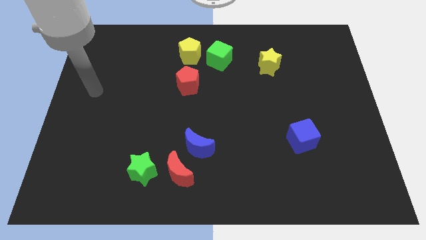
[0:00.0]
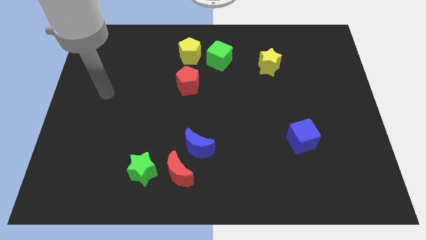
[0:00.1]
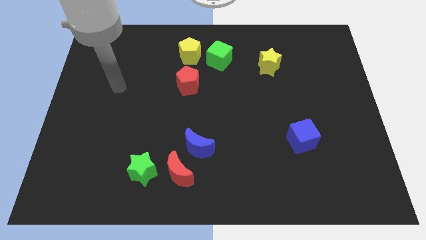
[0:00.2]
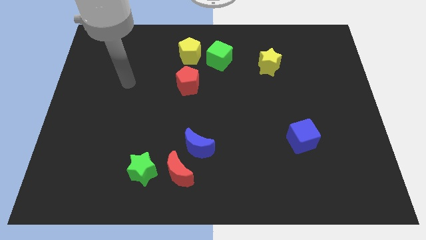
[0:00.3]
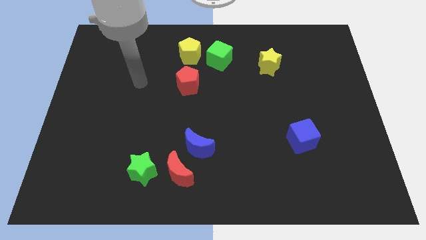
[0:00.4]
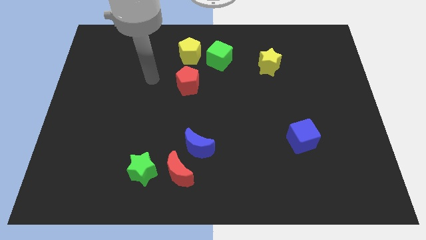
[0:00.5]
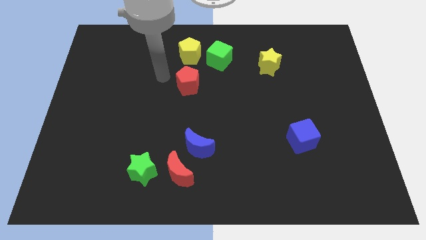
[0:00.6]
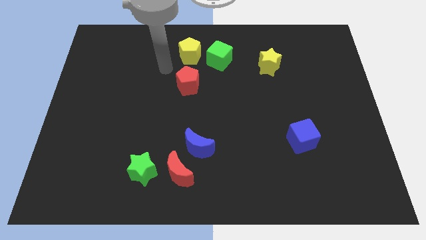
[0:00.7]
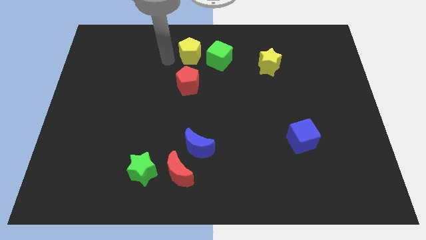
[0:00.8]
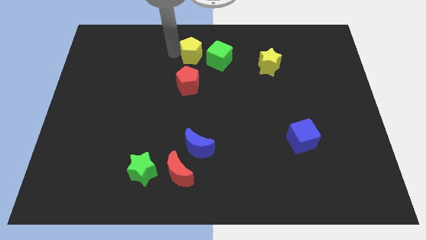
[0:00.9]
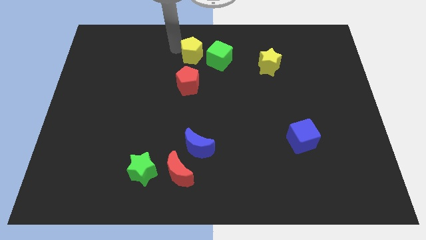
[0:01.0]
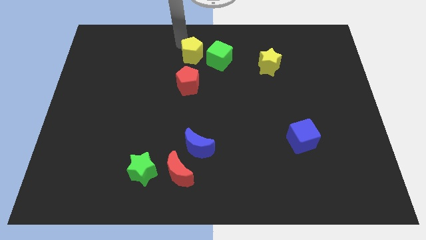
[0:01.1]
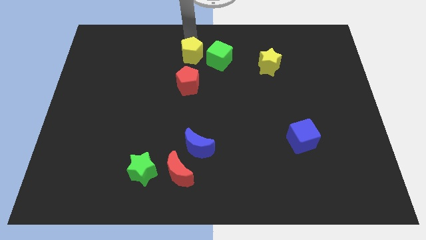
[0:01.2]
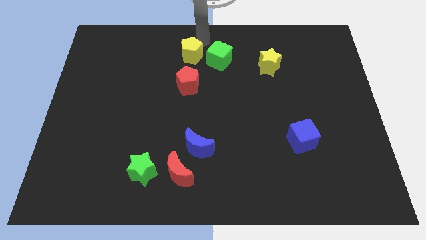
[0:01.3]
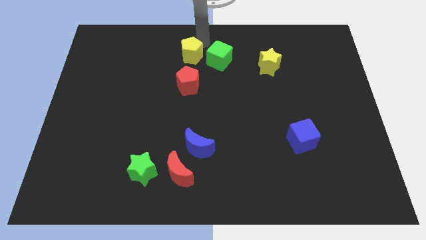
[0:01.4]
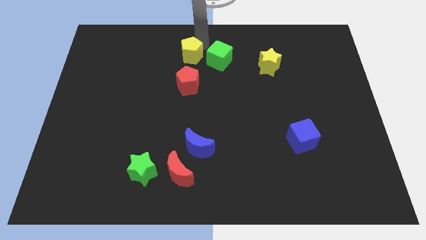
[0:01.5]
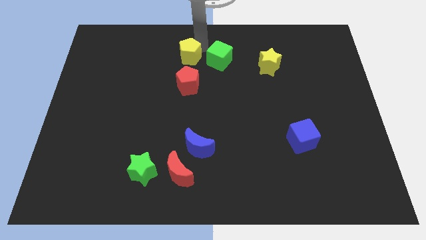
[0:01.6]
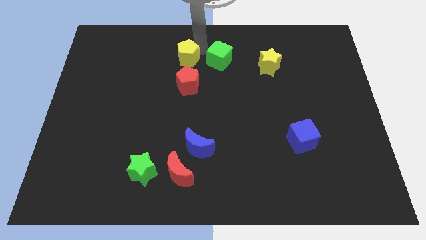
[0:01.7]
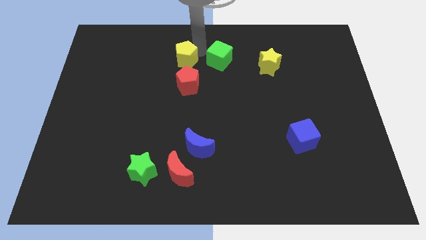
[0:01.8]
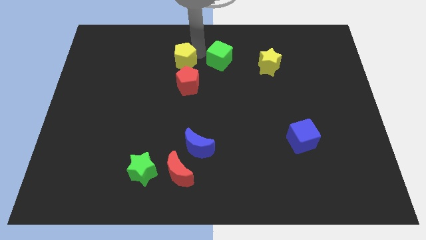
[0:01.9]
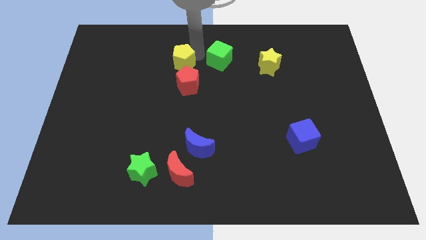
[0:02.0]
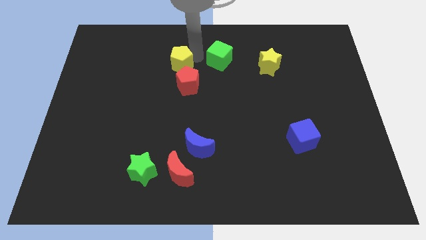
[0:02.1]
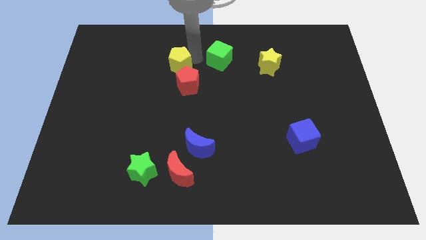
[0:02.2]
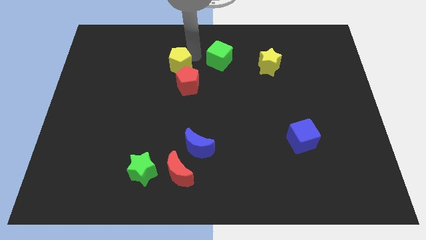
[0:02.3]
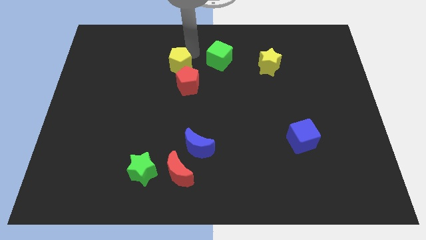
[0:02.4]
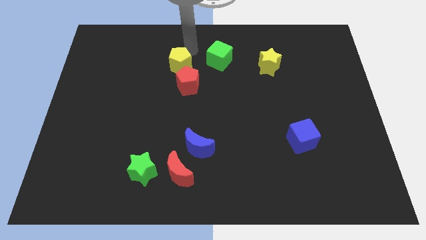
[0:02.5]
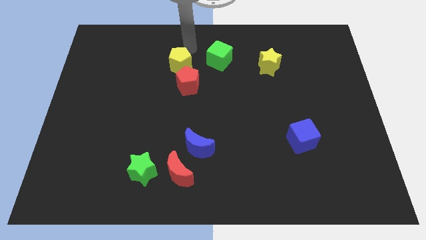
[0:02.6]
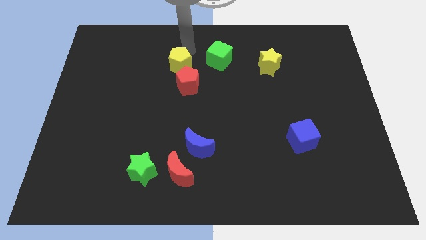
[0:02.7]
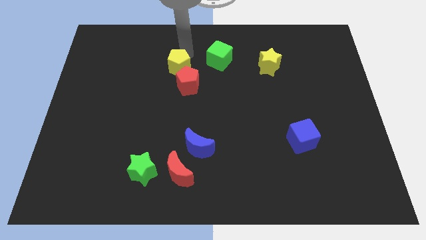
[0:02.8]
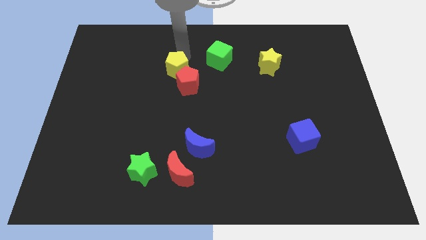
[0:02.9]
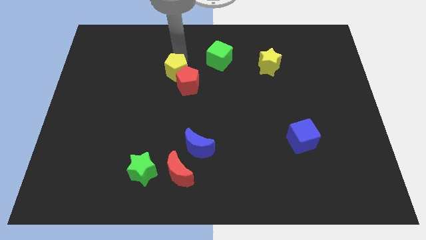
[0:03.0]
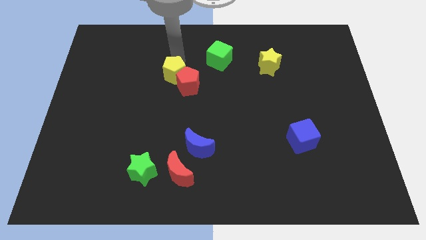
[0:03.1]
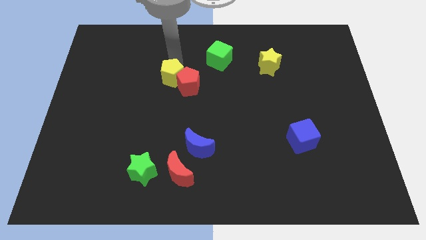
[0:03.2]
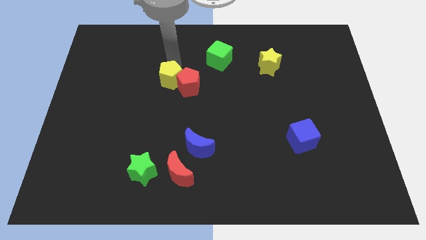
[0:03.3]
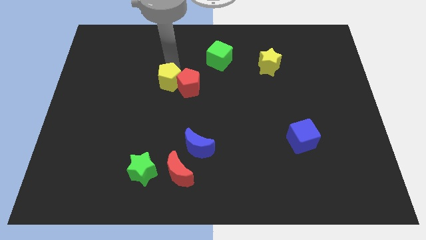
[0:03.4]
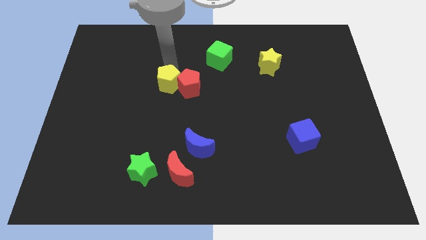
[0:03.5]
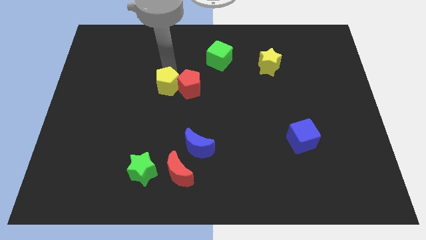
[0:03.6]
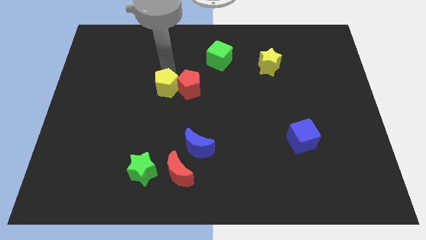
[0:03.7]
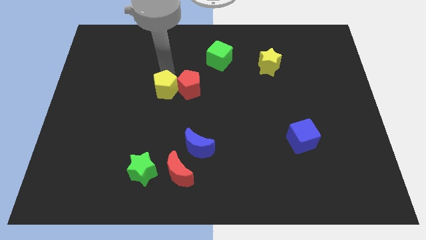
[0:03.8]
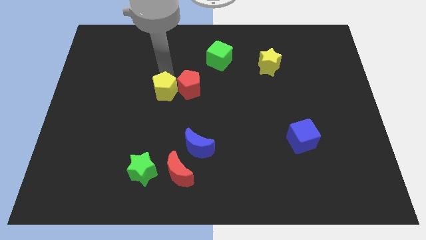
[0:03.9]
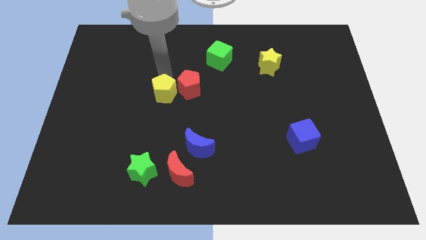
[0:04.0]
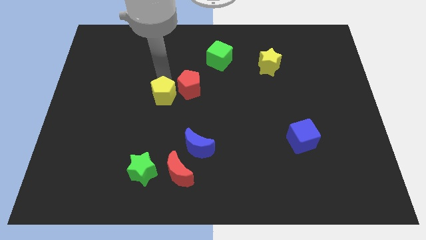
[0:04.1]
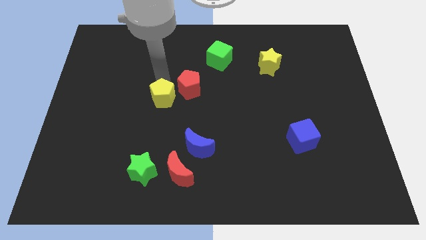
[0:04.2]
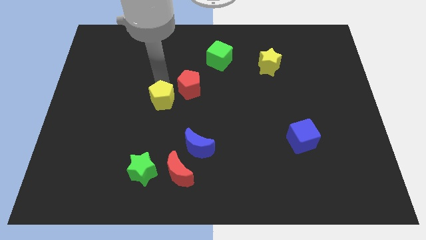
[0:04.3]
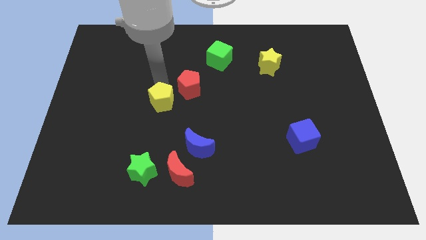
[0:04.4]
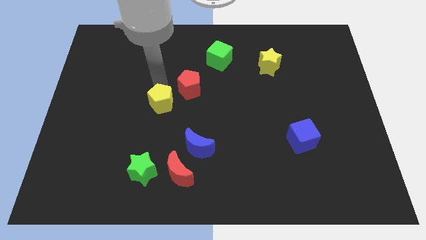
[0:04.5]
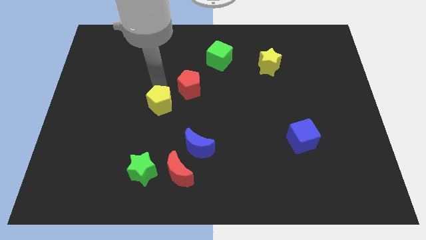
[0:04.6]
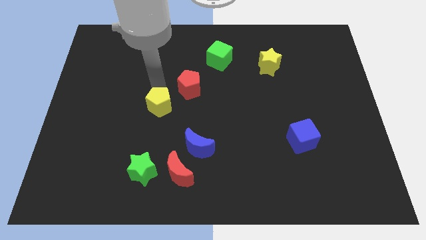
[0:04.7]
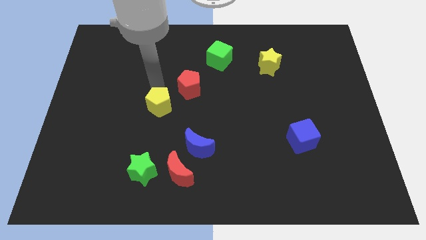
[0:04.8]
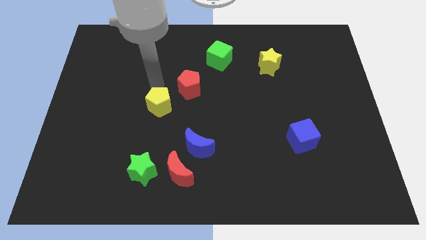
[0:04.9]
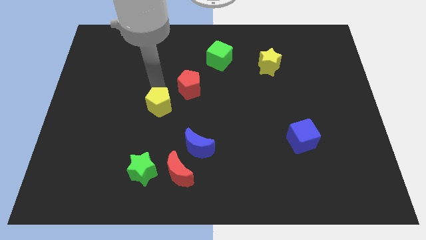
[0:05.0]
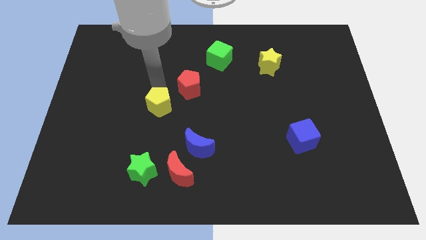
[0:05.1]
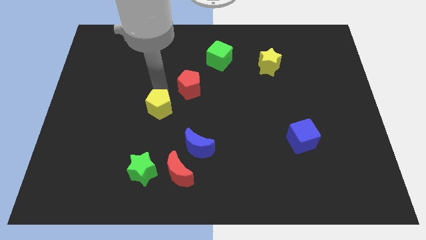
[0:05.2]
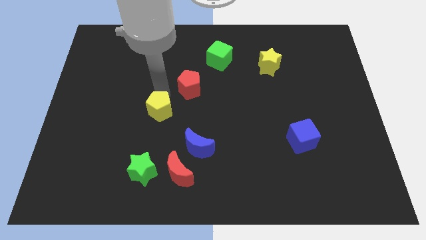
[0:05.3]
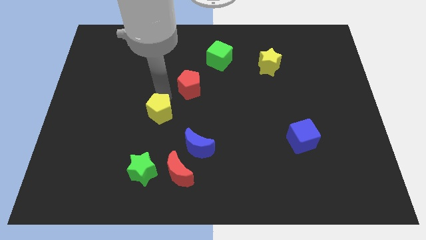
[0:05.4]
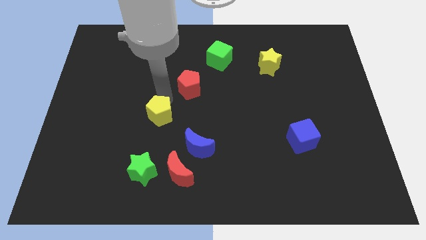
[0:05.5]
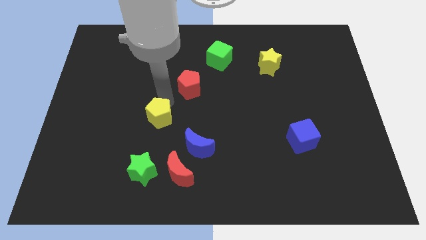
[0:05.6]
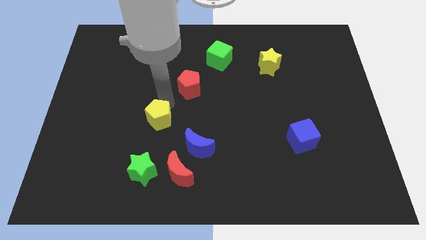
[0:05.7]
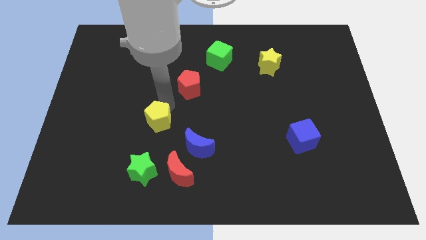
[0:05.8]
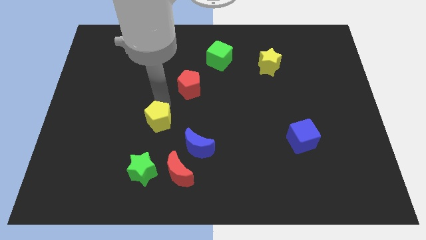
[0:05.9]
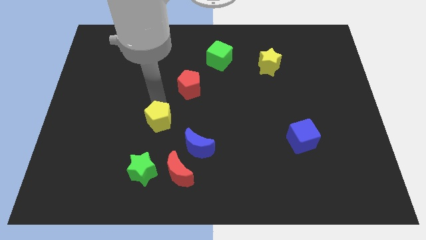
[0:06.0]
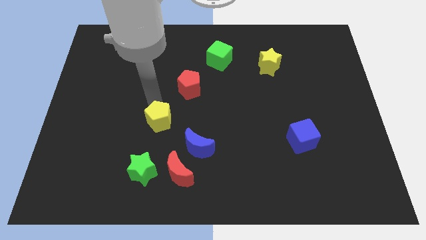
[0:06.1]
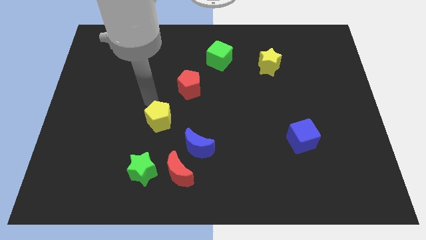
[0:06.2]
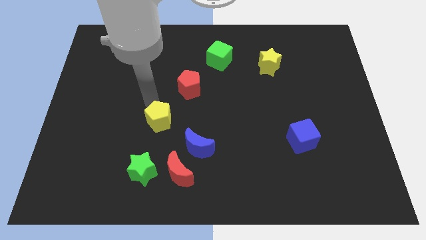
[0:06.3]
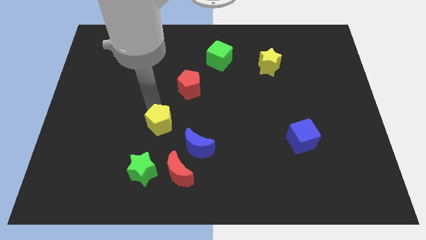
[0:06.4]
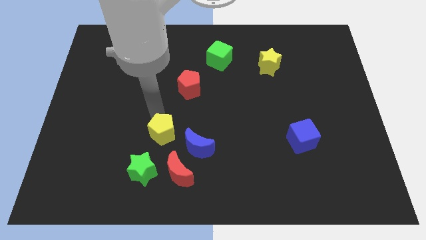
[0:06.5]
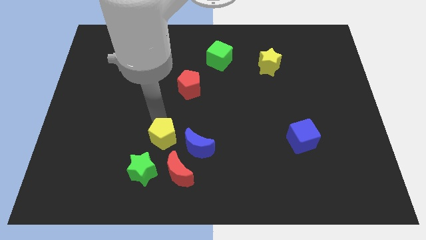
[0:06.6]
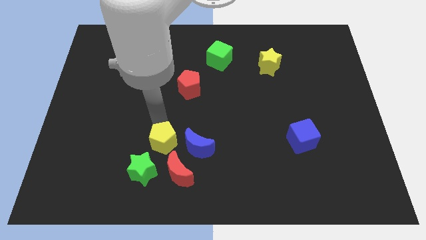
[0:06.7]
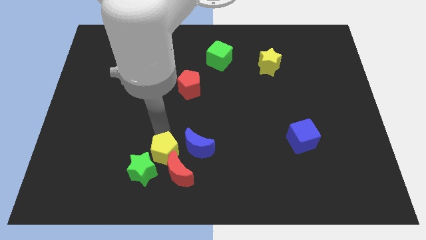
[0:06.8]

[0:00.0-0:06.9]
put the yellow pentagon next to the red moon

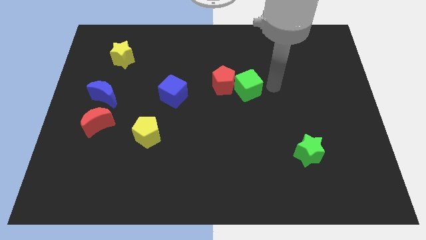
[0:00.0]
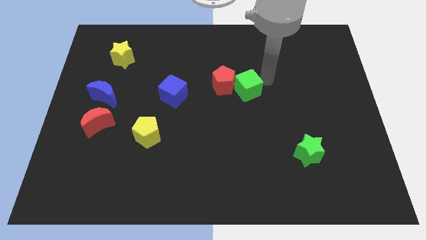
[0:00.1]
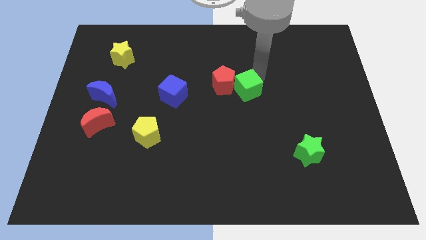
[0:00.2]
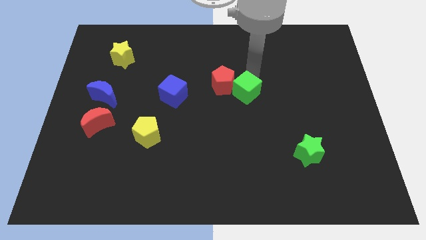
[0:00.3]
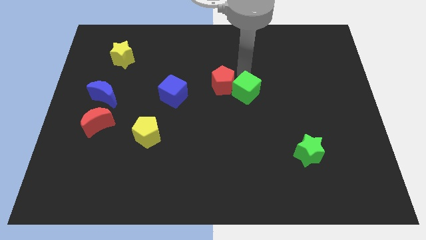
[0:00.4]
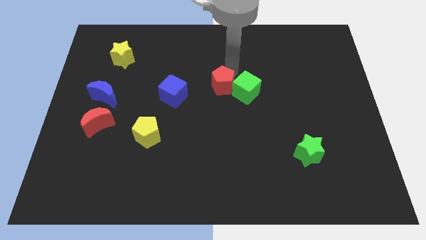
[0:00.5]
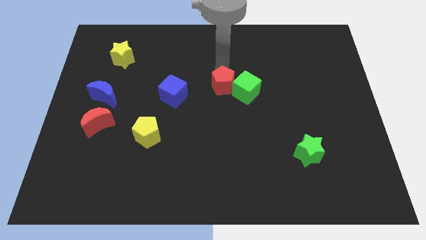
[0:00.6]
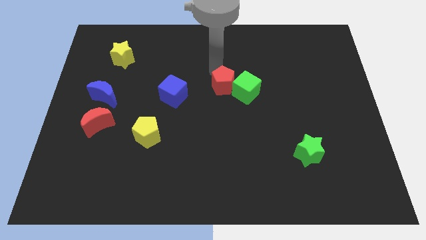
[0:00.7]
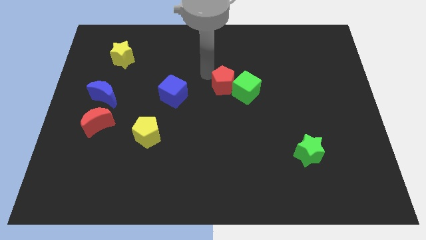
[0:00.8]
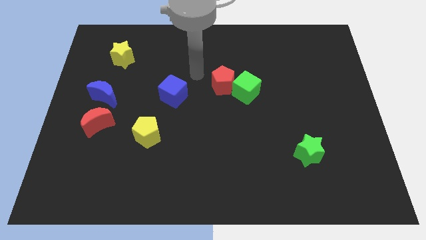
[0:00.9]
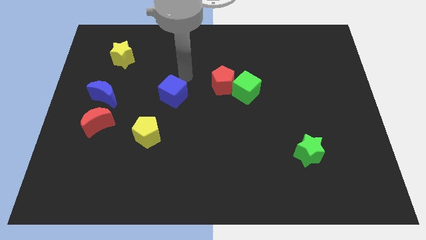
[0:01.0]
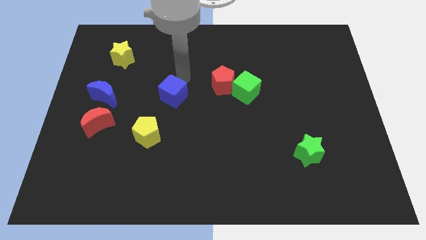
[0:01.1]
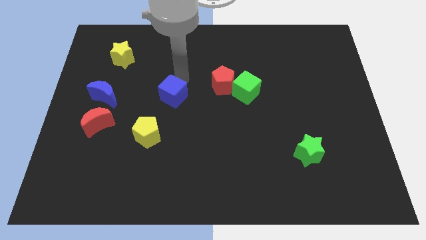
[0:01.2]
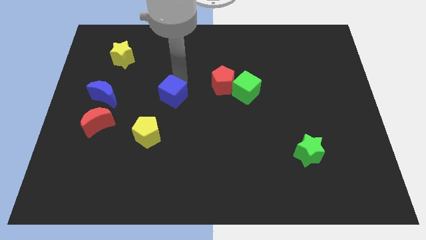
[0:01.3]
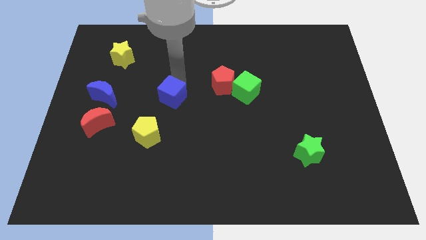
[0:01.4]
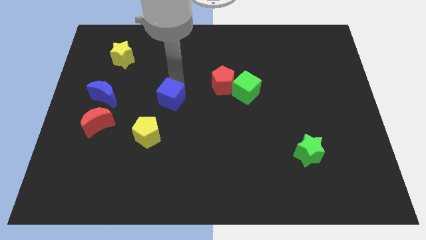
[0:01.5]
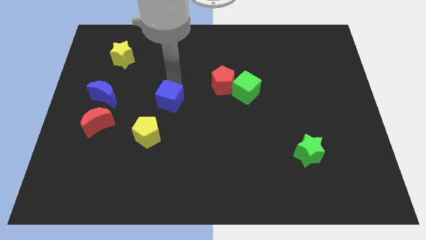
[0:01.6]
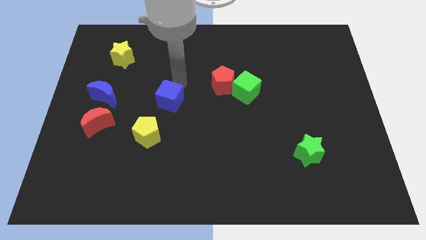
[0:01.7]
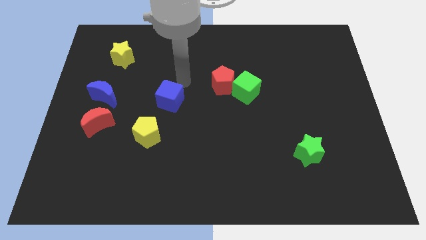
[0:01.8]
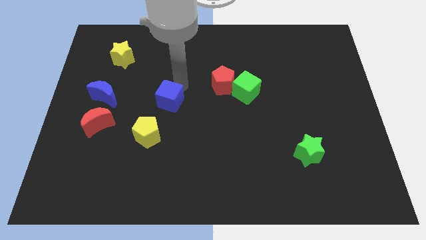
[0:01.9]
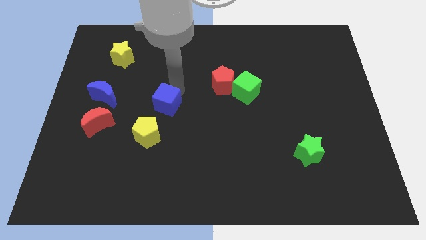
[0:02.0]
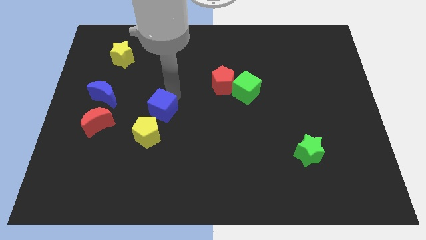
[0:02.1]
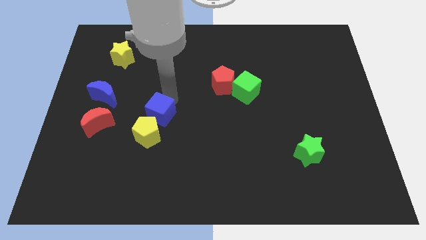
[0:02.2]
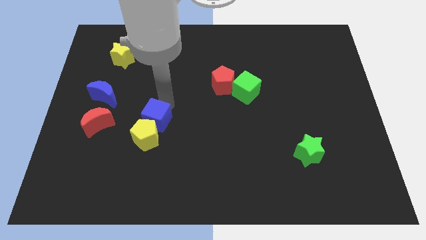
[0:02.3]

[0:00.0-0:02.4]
move the blue cube towards the yellow pentagon
